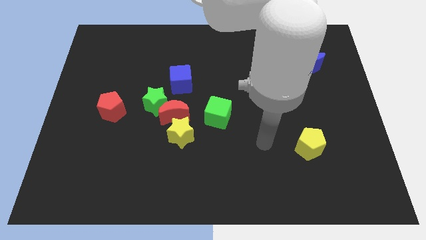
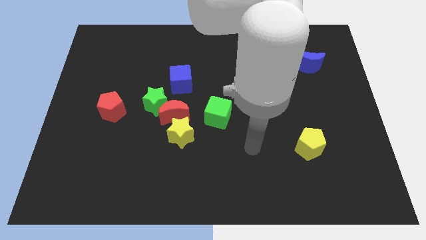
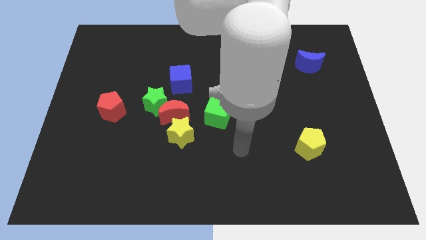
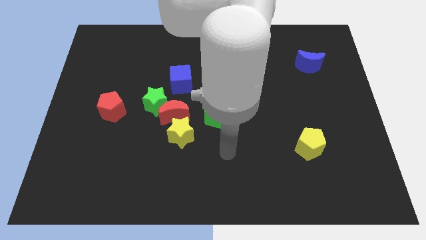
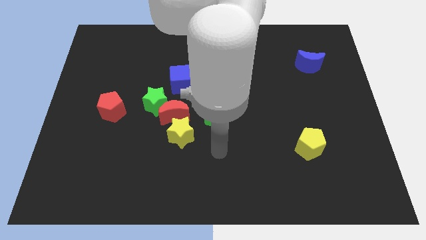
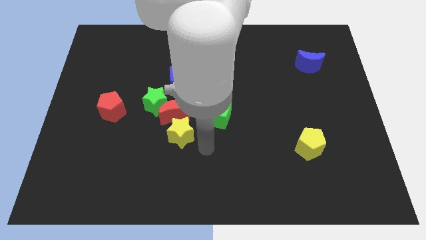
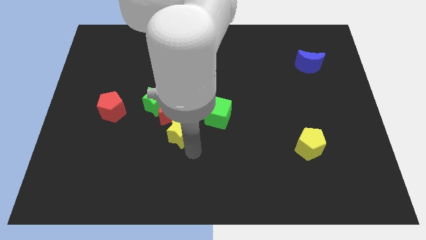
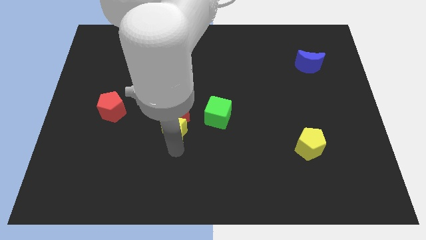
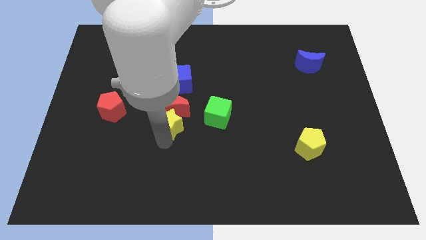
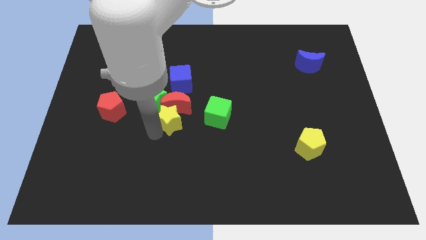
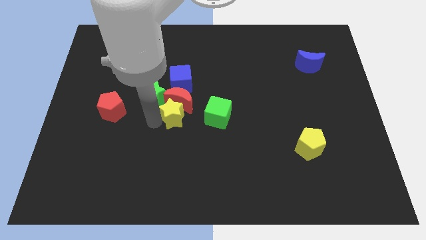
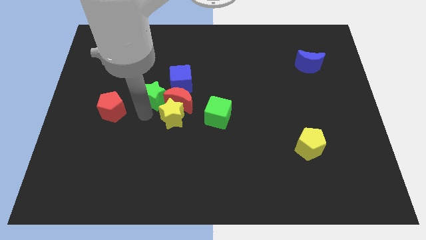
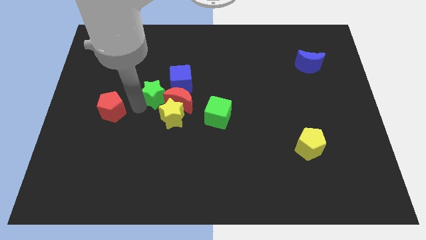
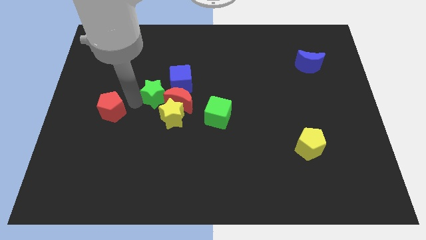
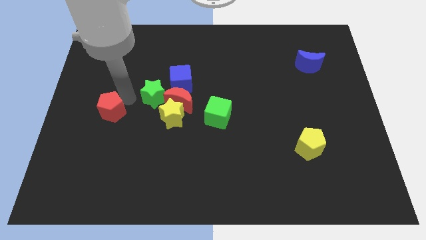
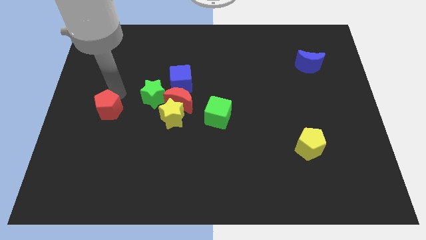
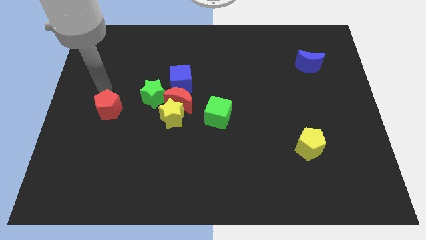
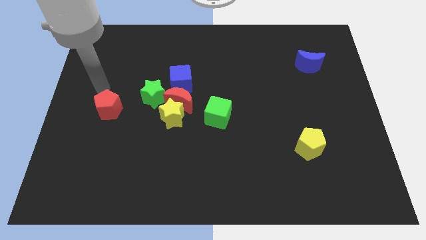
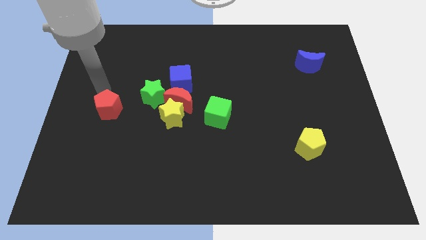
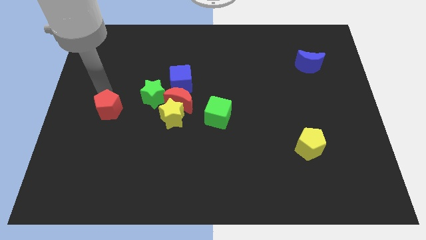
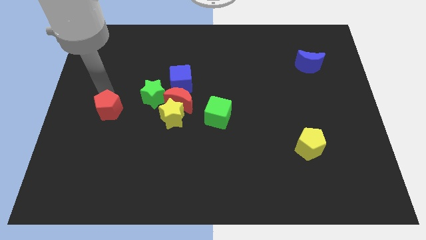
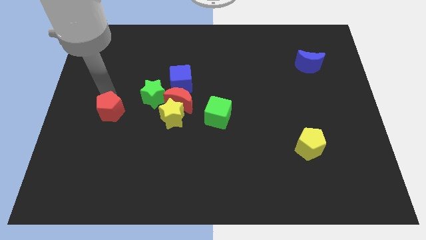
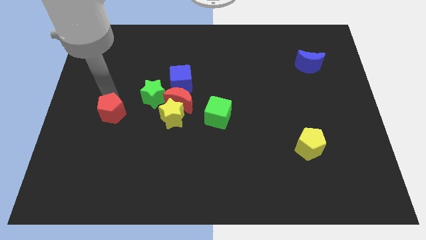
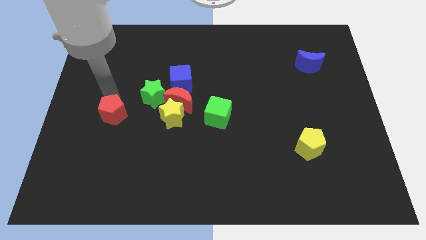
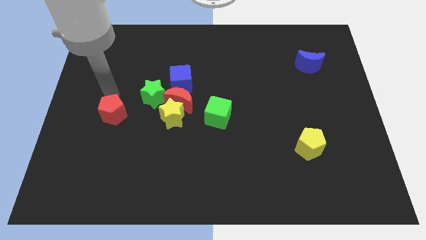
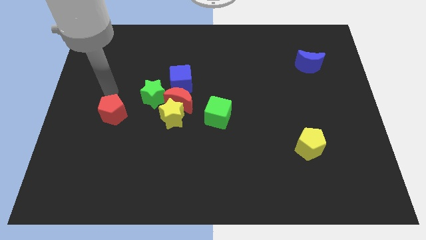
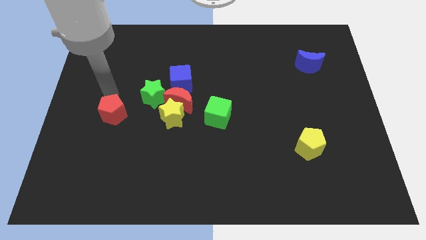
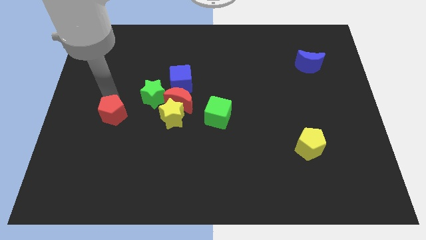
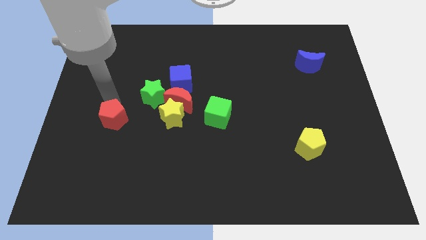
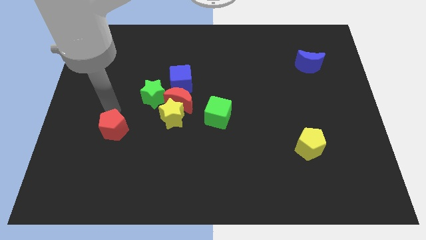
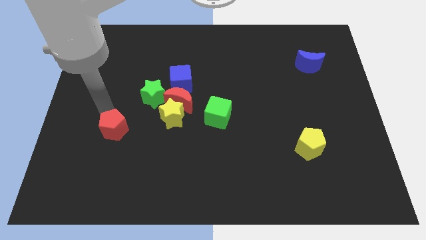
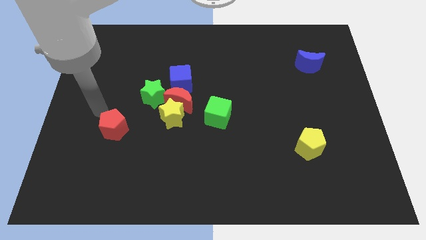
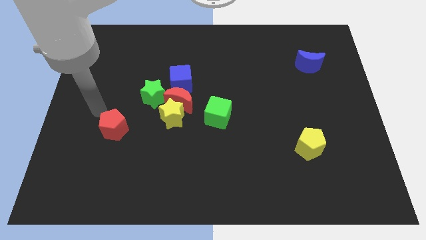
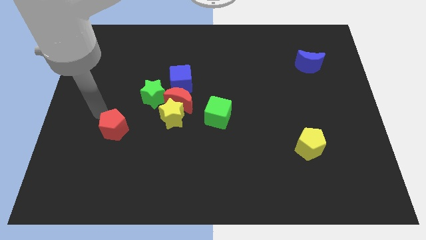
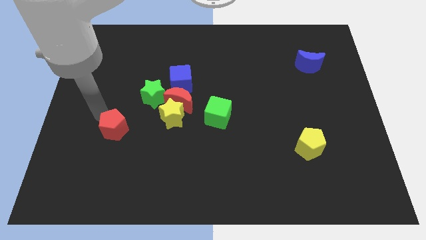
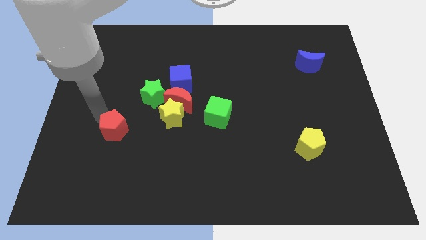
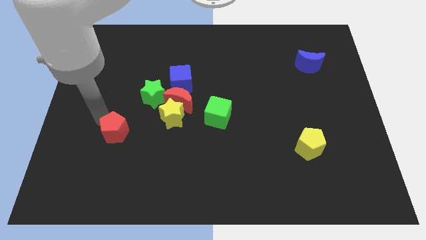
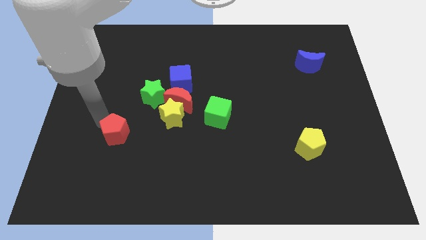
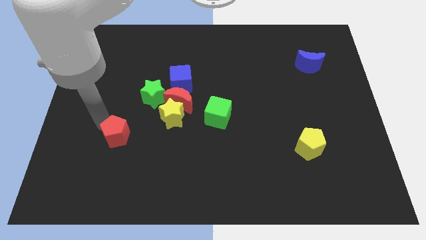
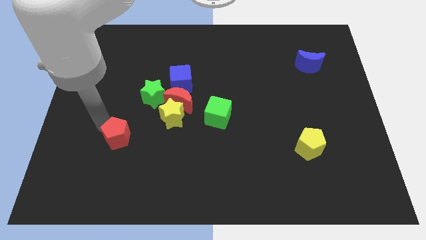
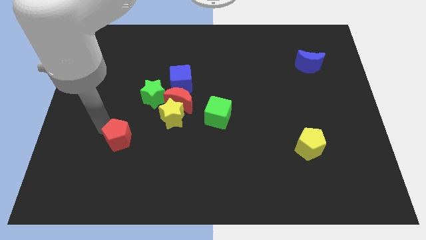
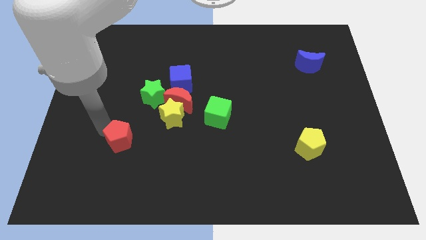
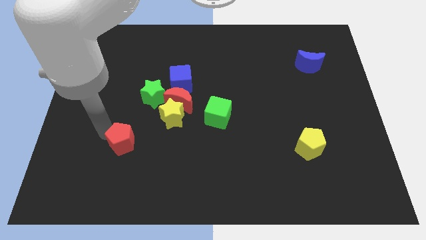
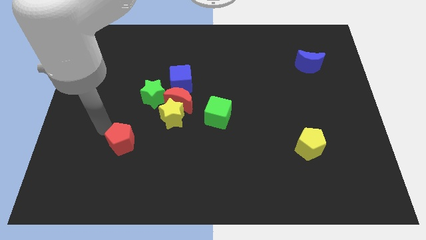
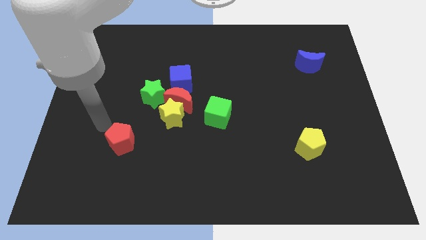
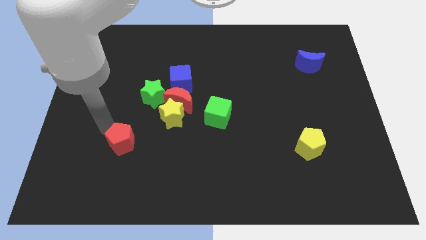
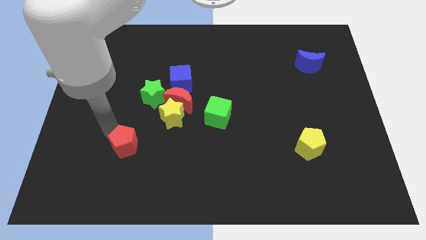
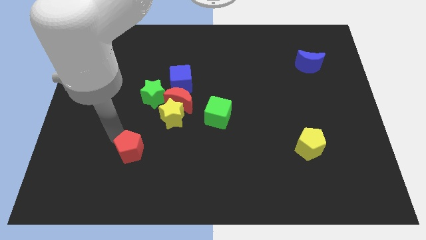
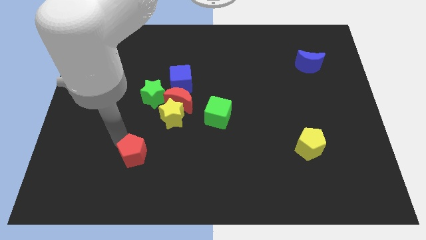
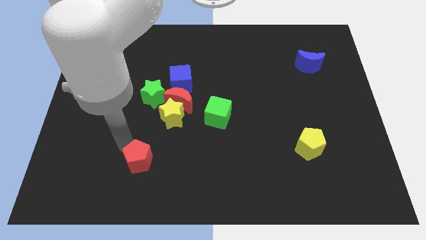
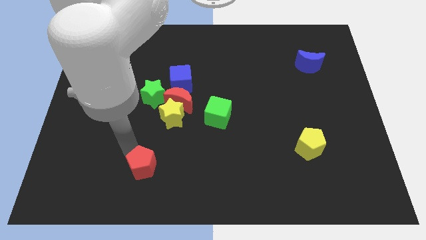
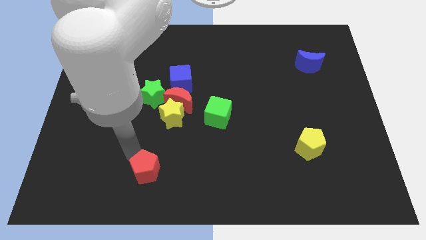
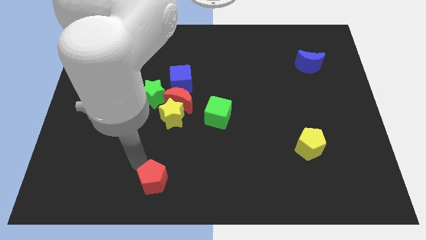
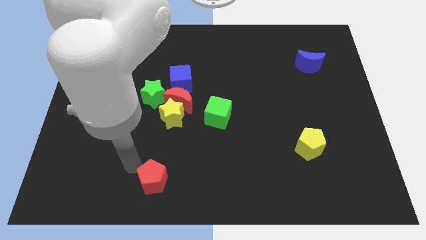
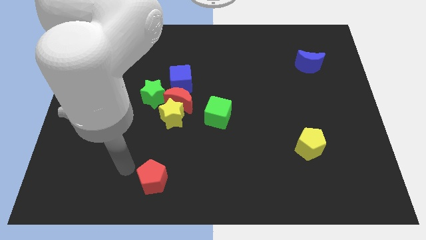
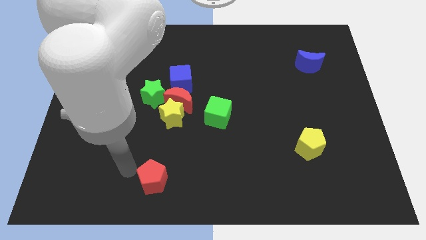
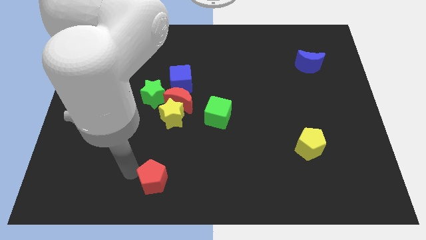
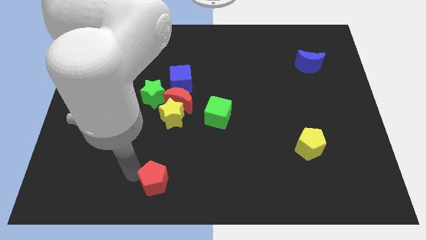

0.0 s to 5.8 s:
move the red pentagon to the bottom side

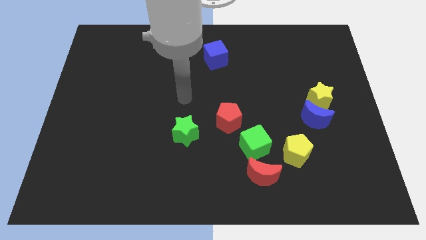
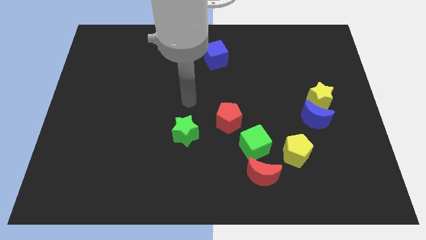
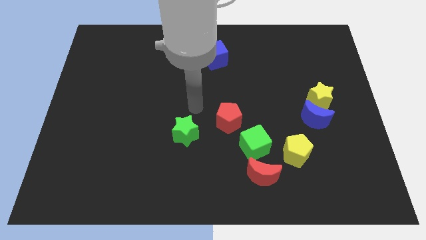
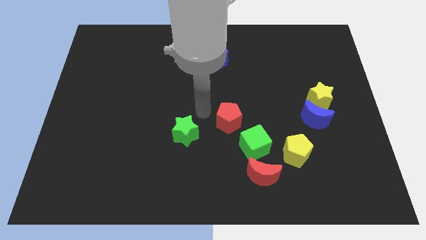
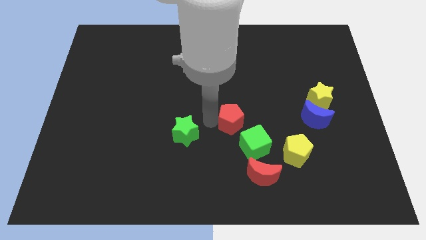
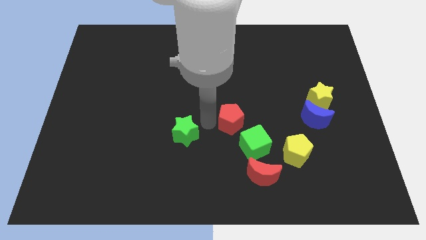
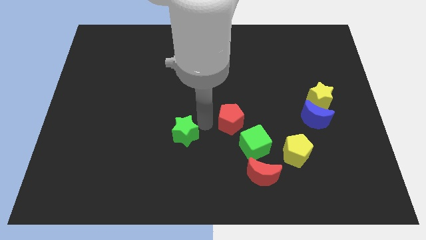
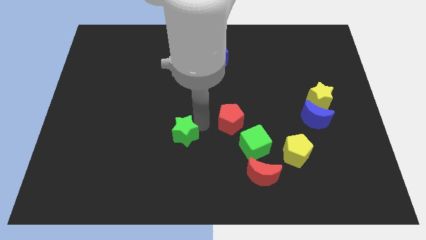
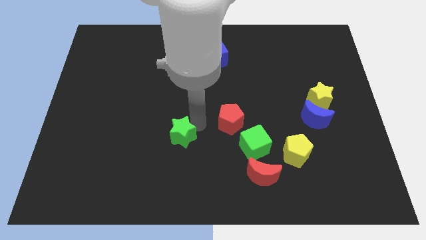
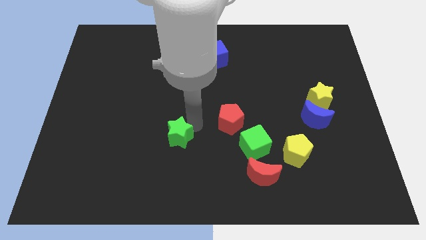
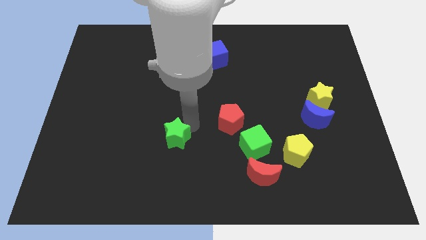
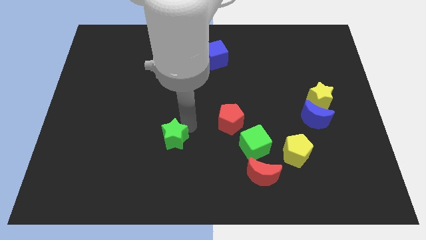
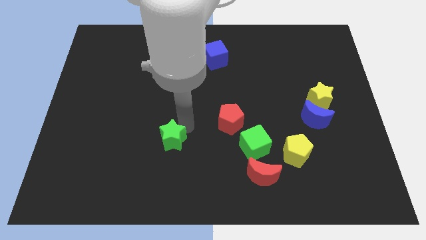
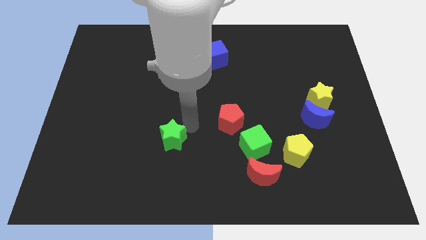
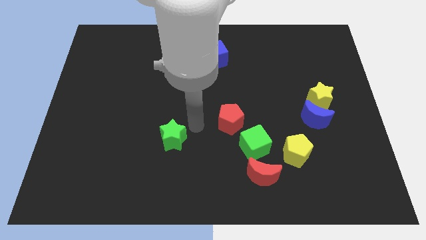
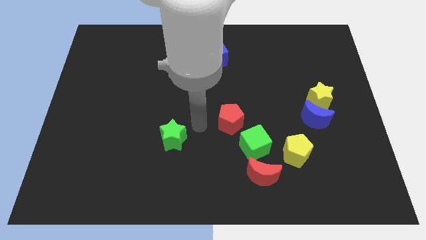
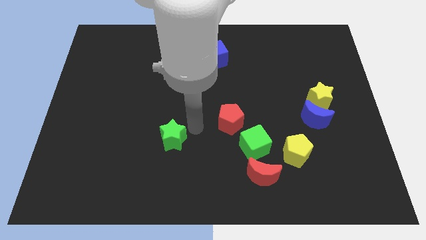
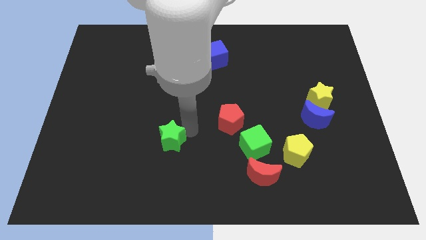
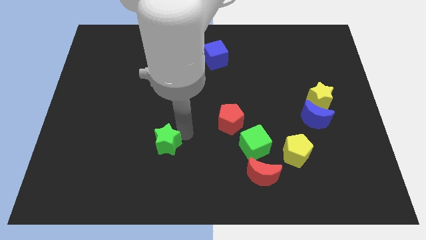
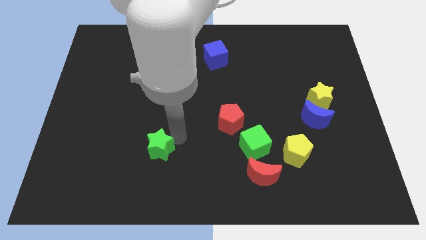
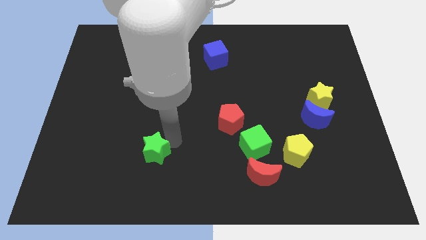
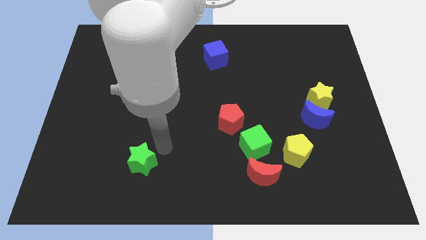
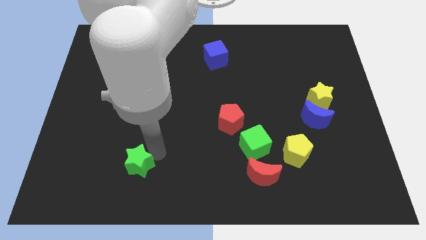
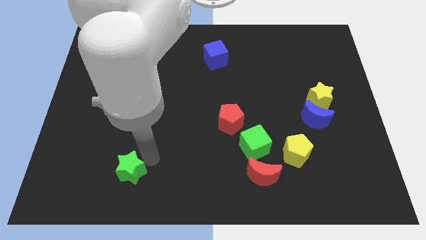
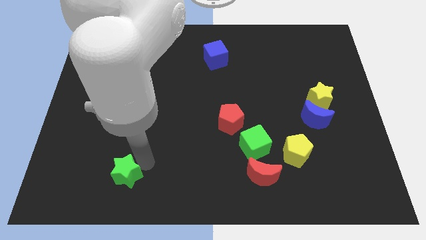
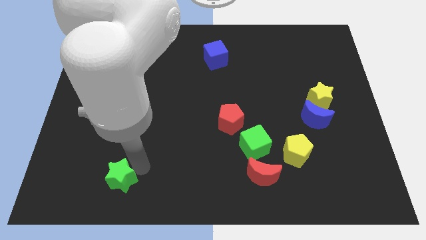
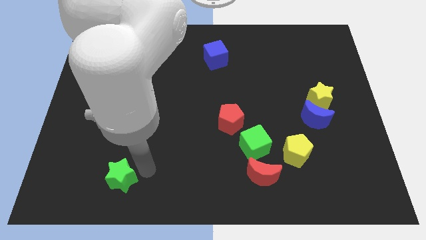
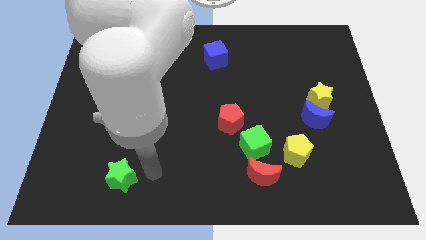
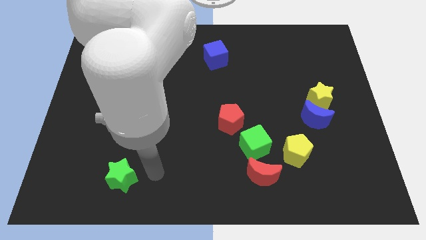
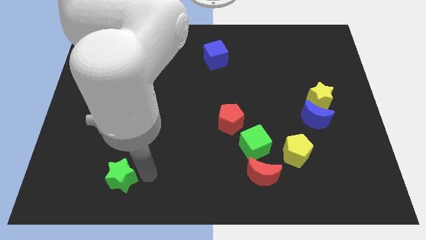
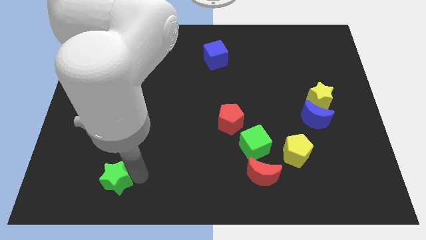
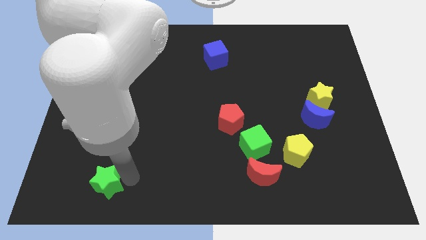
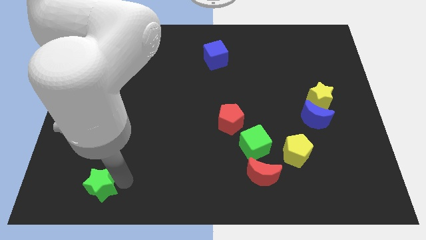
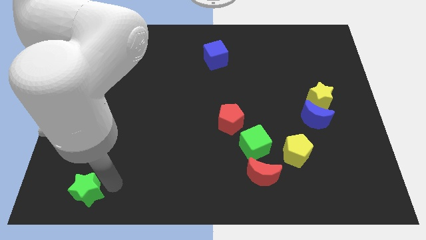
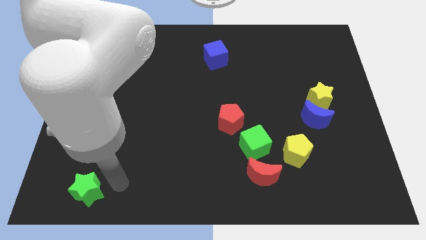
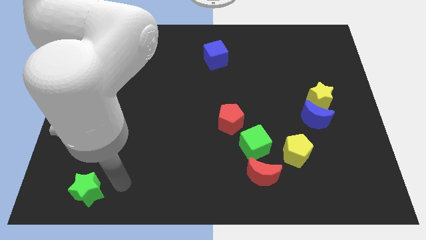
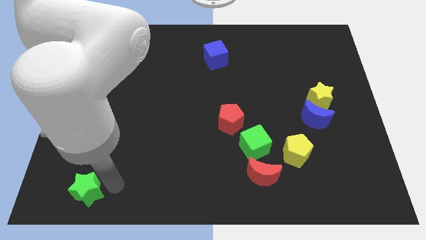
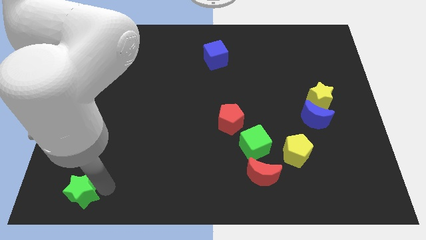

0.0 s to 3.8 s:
put the green star to the bottom left
